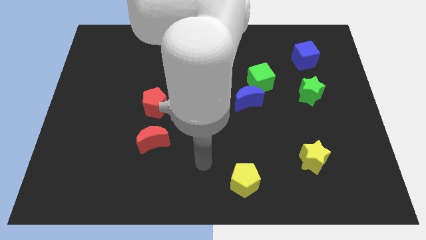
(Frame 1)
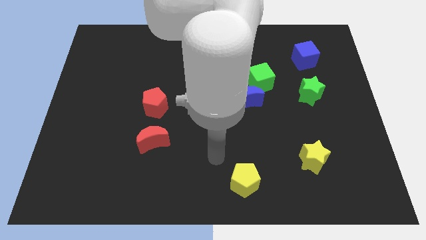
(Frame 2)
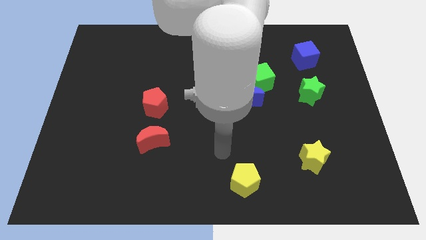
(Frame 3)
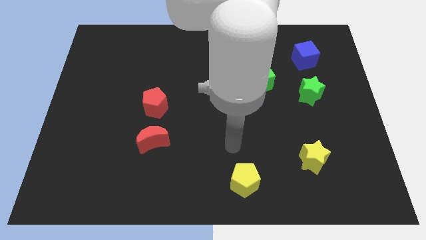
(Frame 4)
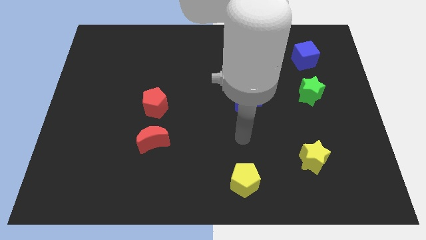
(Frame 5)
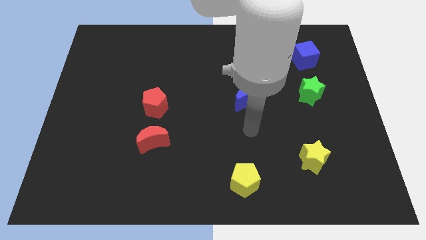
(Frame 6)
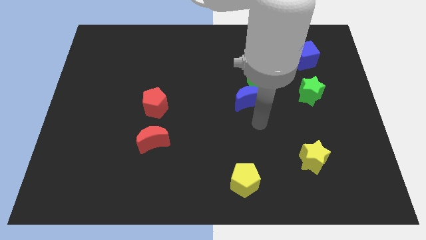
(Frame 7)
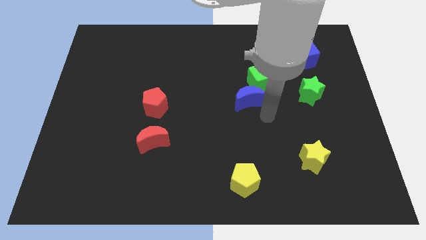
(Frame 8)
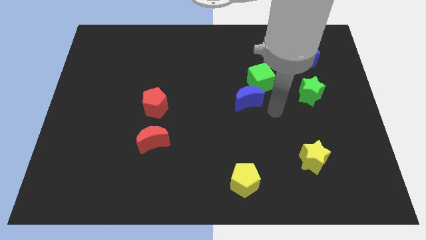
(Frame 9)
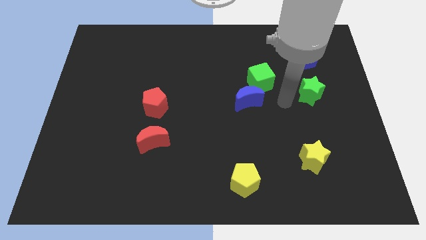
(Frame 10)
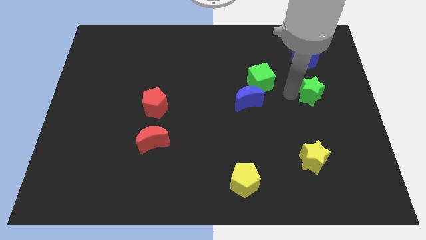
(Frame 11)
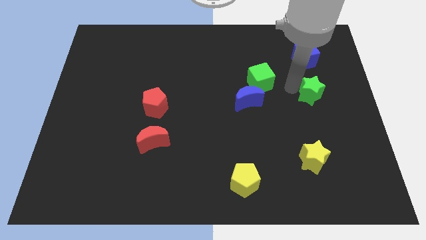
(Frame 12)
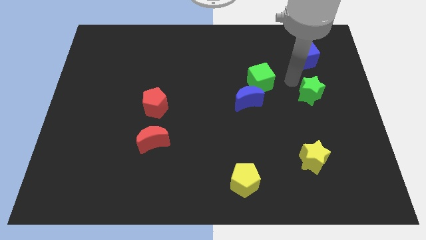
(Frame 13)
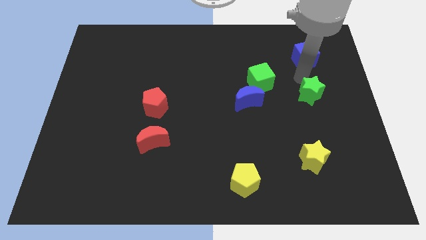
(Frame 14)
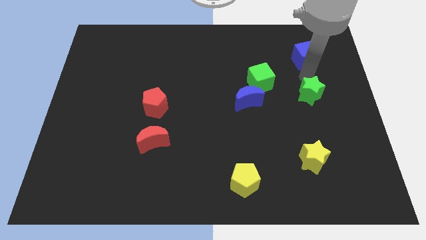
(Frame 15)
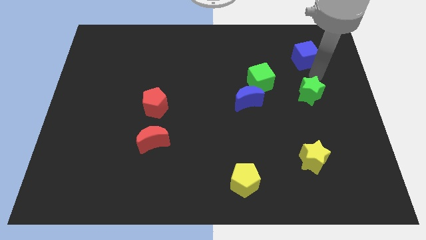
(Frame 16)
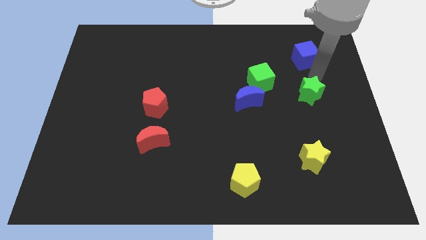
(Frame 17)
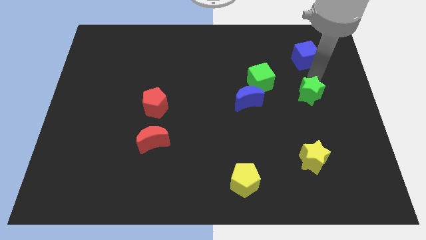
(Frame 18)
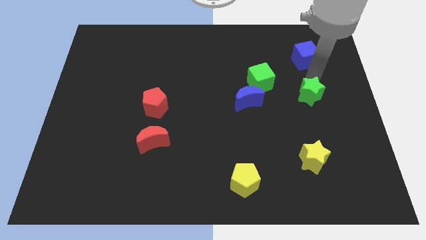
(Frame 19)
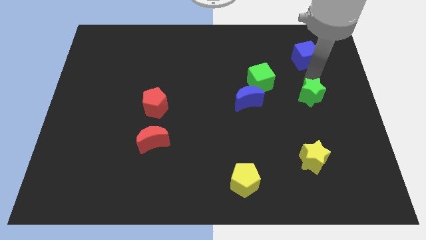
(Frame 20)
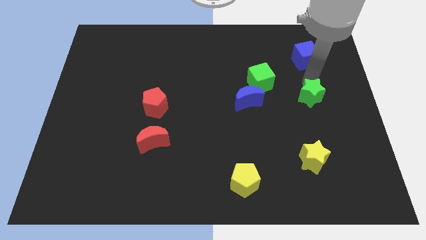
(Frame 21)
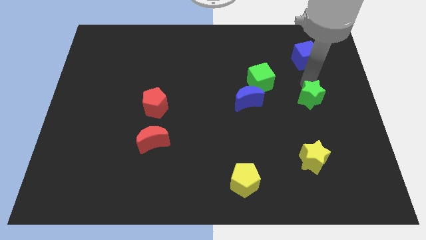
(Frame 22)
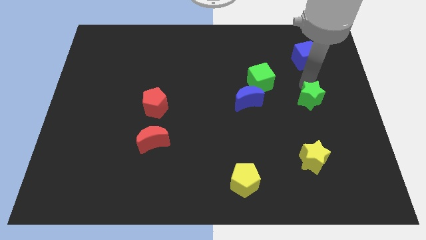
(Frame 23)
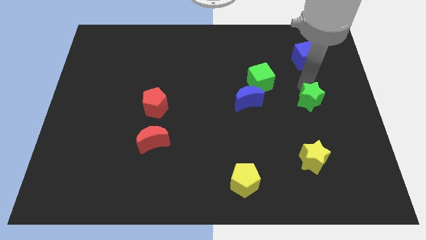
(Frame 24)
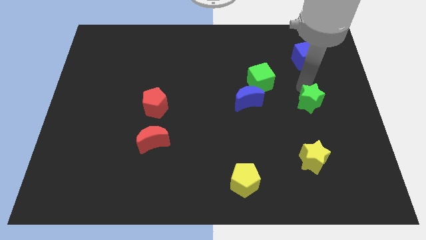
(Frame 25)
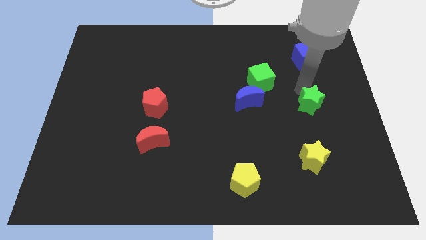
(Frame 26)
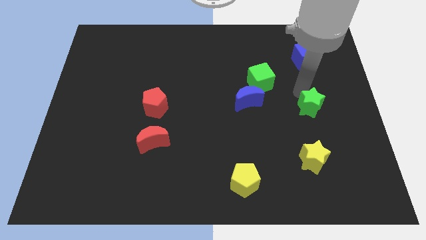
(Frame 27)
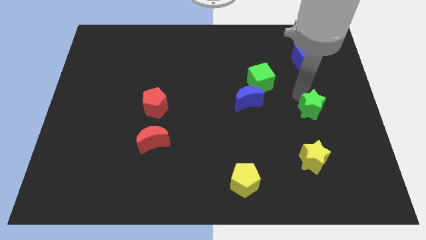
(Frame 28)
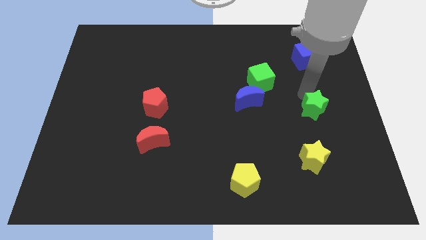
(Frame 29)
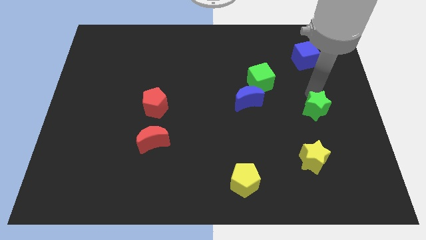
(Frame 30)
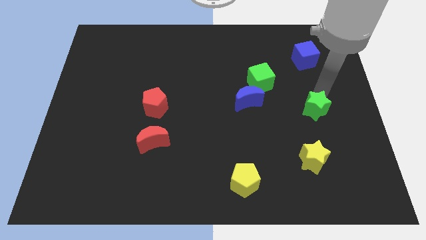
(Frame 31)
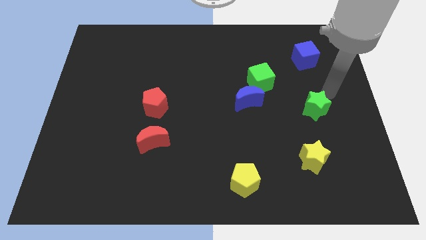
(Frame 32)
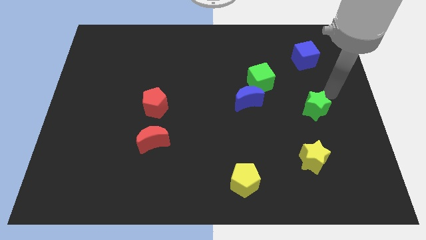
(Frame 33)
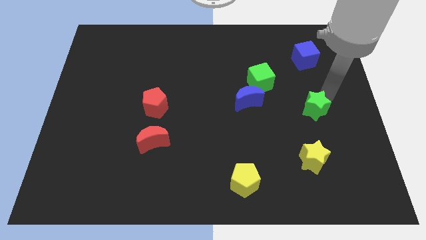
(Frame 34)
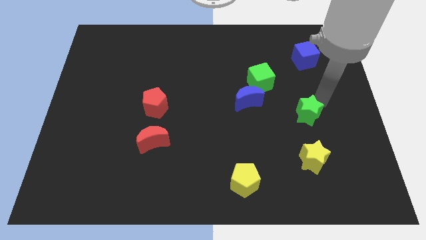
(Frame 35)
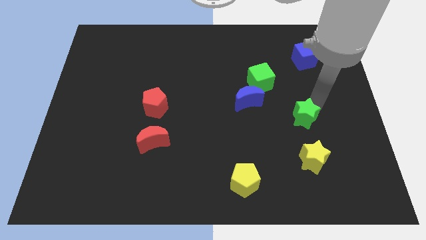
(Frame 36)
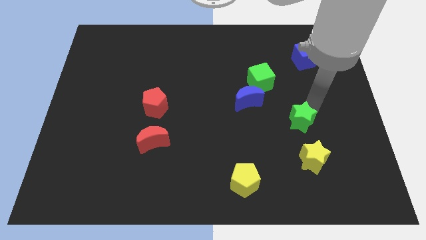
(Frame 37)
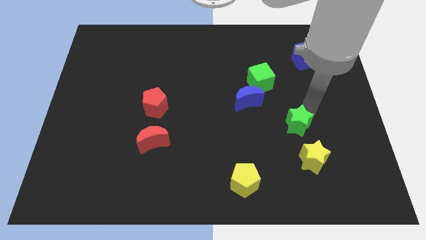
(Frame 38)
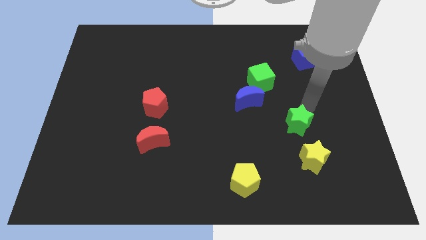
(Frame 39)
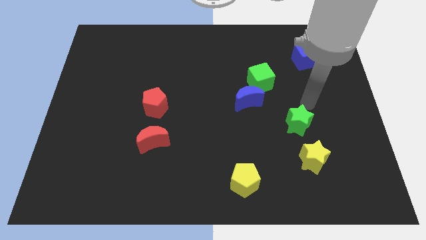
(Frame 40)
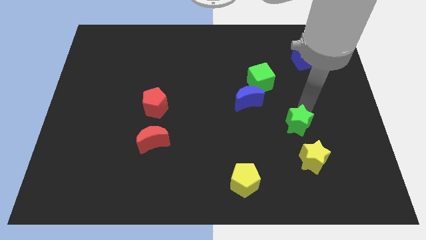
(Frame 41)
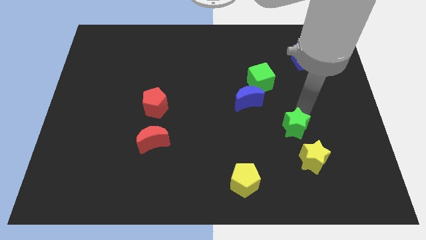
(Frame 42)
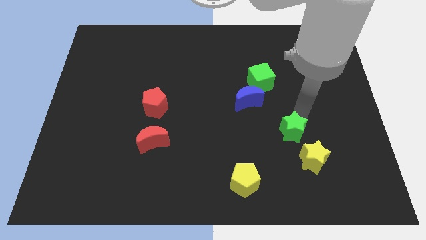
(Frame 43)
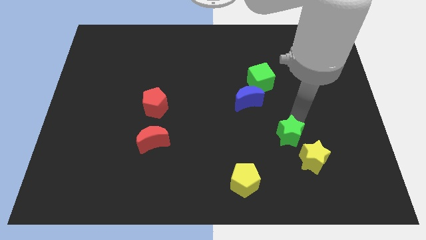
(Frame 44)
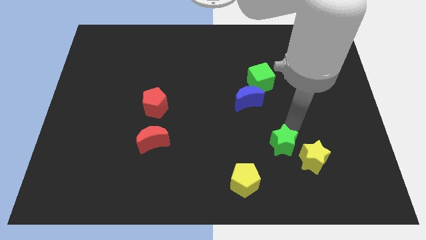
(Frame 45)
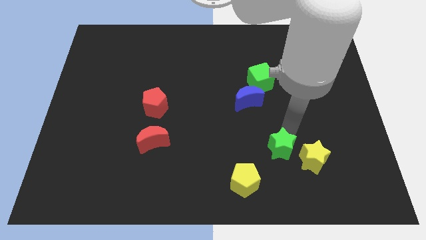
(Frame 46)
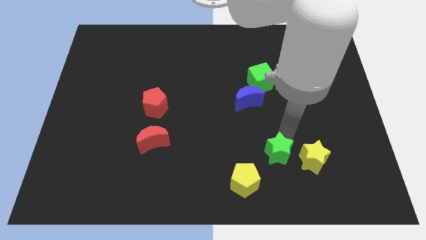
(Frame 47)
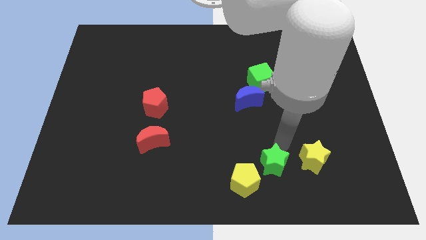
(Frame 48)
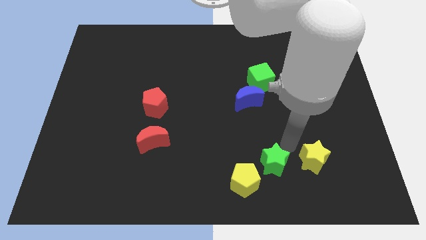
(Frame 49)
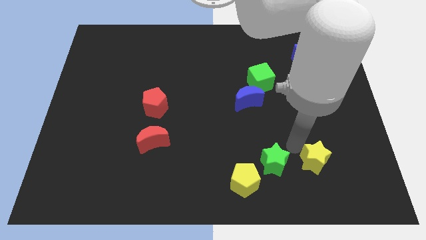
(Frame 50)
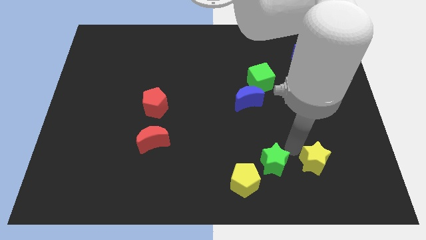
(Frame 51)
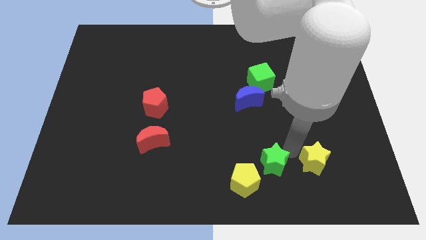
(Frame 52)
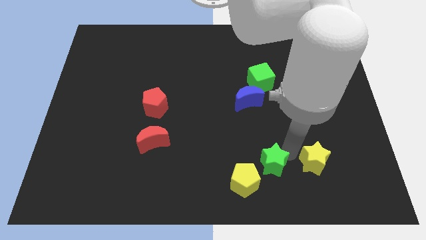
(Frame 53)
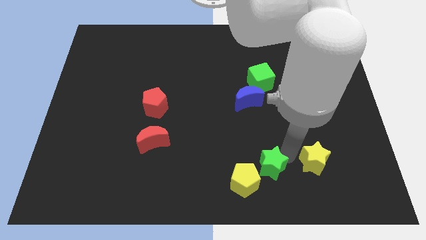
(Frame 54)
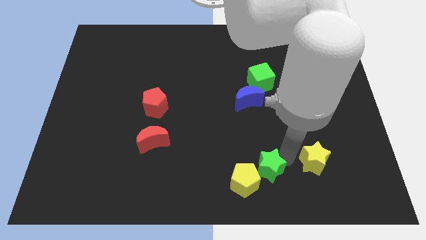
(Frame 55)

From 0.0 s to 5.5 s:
put the green star to the yellow pentagon
